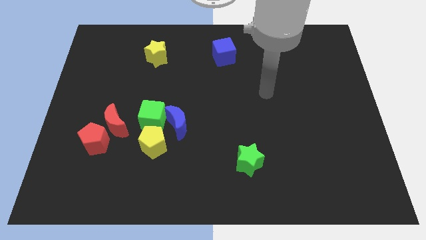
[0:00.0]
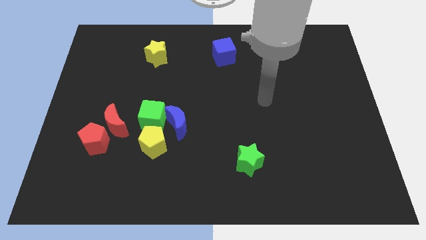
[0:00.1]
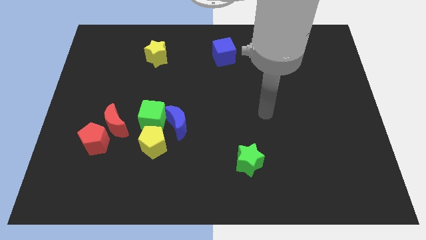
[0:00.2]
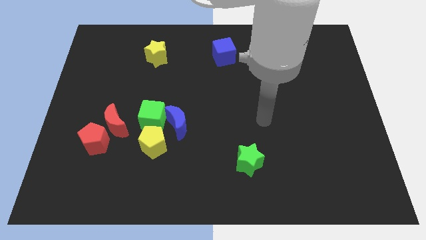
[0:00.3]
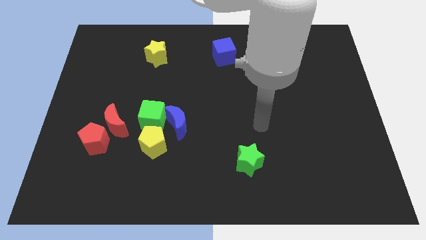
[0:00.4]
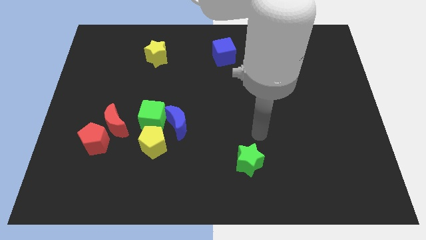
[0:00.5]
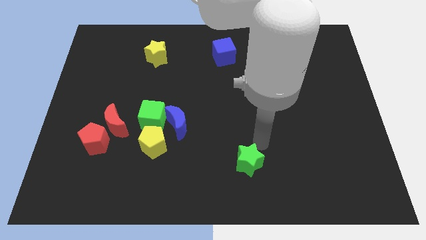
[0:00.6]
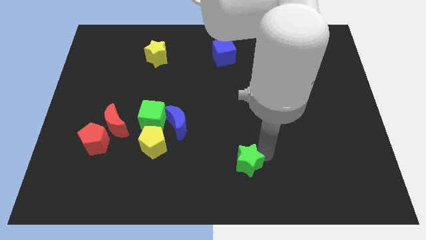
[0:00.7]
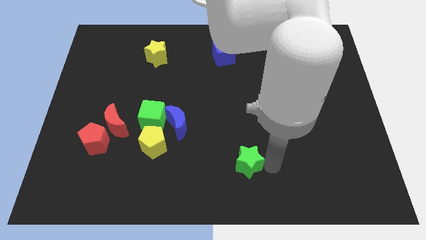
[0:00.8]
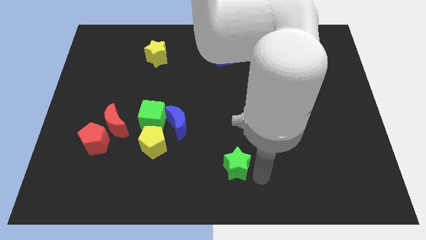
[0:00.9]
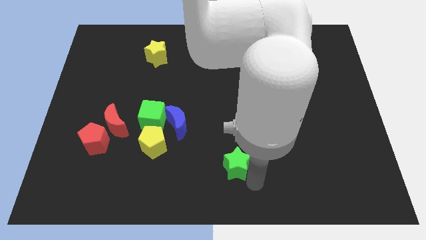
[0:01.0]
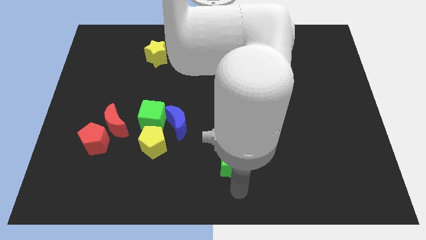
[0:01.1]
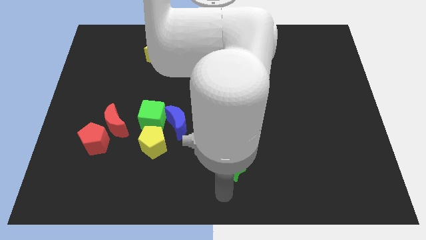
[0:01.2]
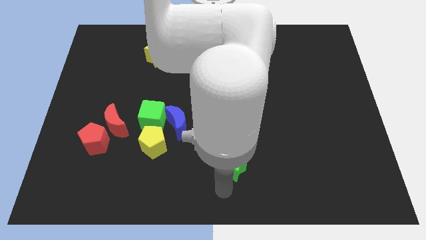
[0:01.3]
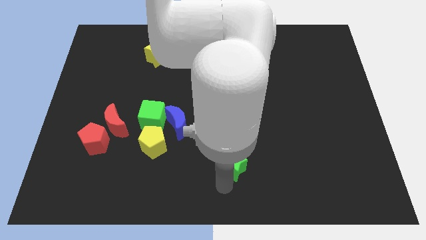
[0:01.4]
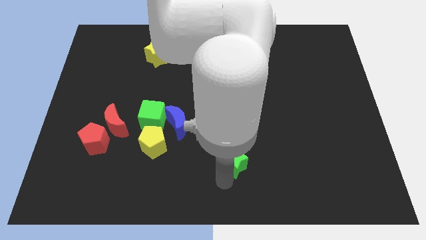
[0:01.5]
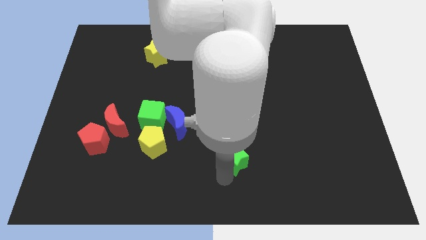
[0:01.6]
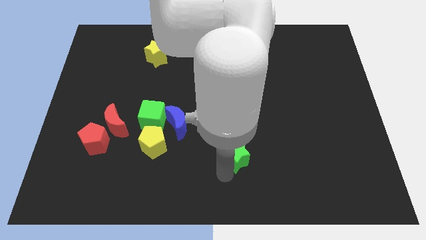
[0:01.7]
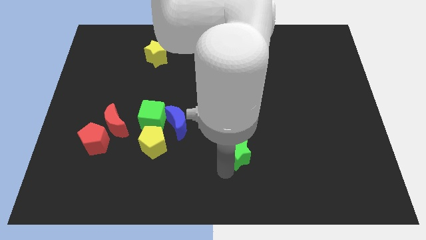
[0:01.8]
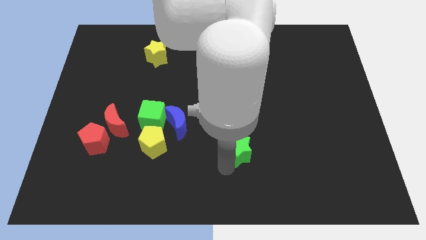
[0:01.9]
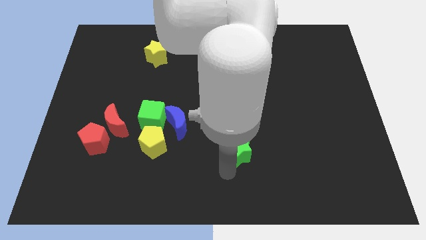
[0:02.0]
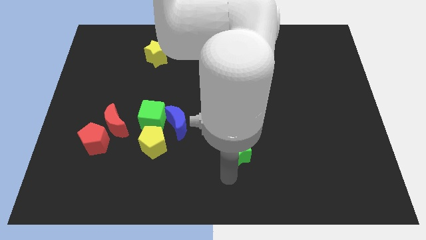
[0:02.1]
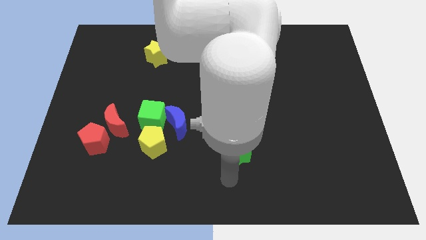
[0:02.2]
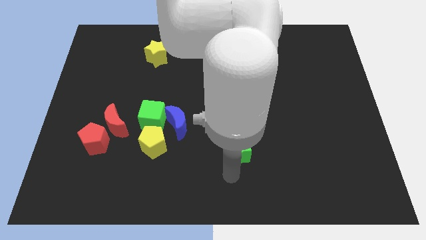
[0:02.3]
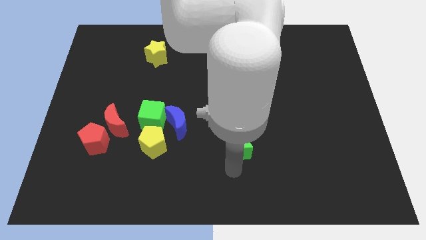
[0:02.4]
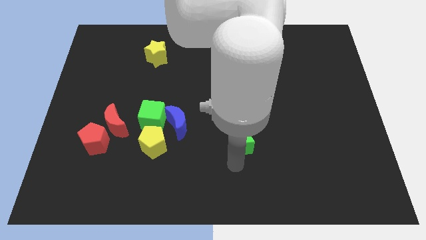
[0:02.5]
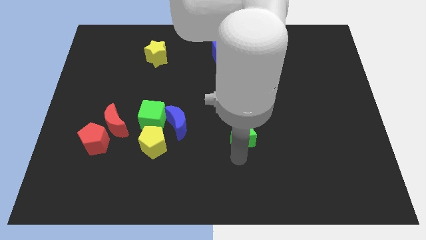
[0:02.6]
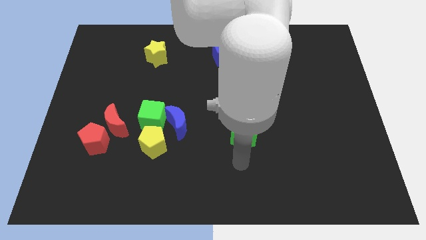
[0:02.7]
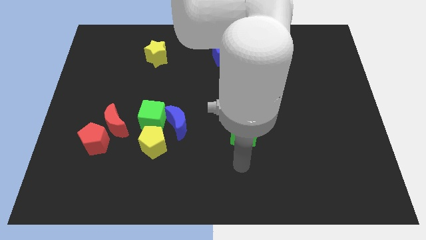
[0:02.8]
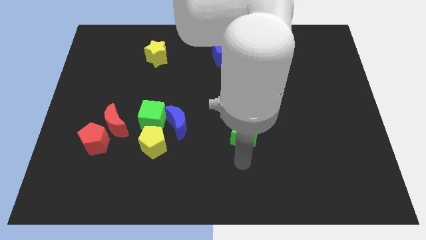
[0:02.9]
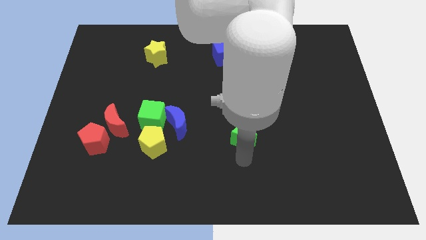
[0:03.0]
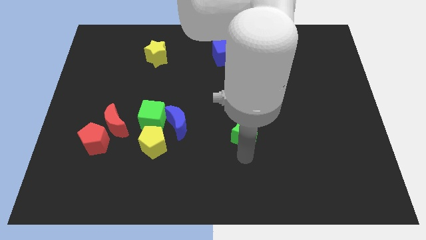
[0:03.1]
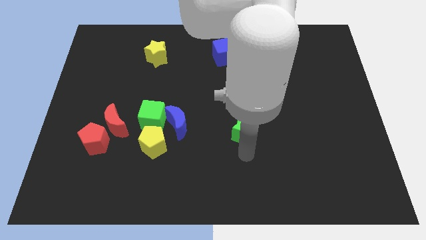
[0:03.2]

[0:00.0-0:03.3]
push the green star somewhat upwards

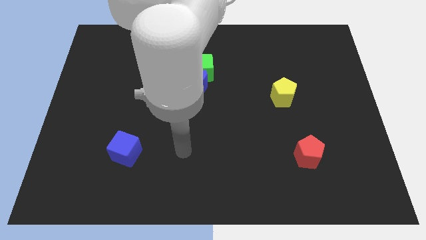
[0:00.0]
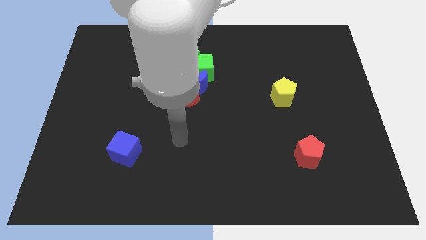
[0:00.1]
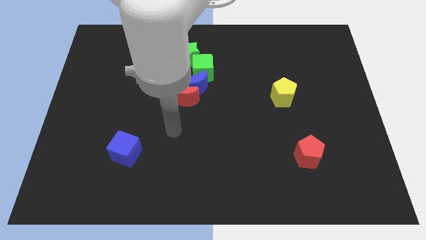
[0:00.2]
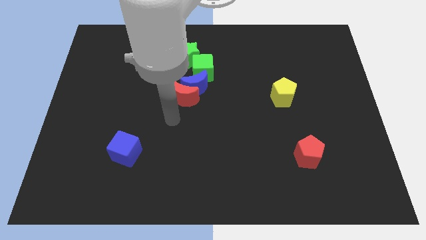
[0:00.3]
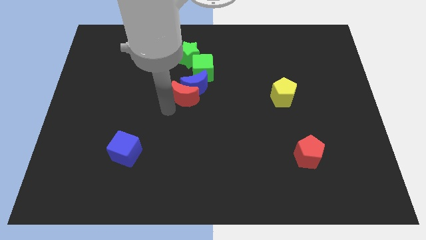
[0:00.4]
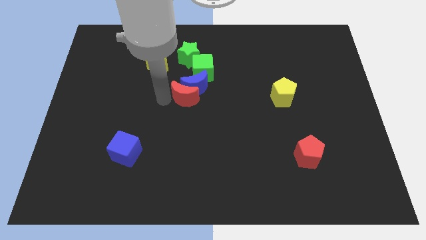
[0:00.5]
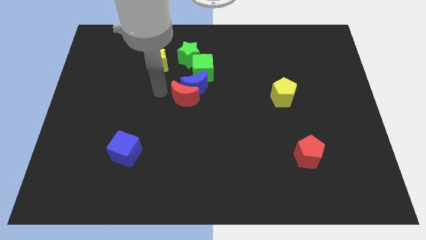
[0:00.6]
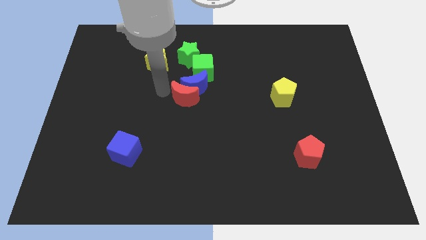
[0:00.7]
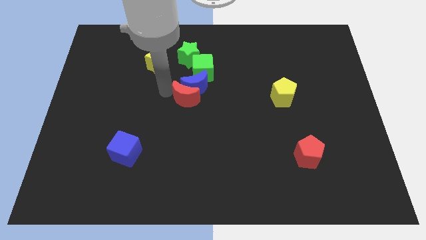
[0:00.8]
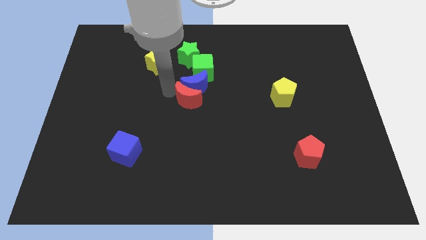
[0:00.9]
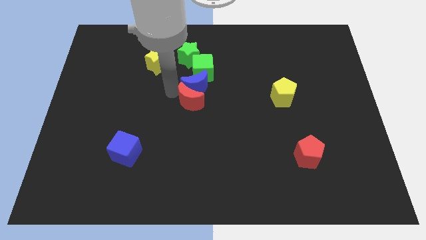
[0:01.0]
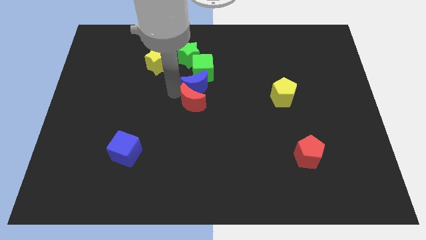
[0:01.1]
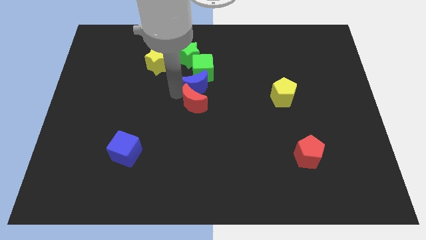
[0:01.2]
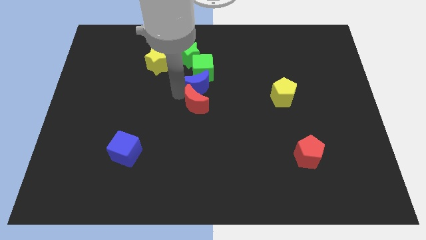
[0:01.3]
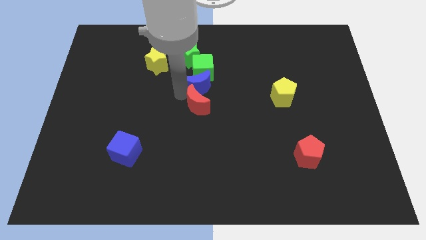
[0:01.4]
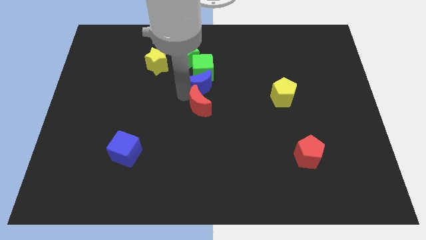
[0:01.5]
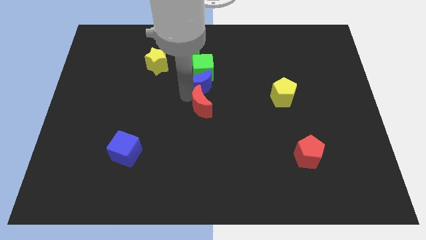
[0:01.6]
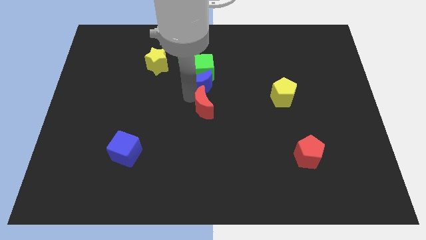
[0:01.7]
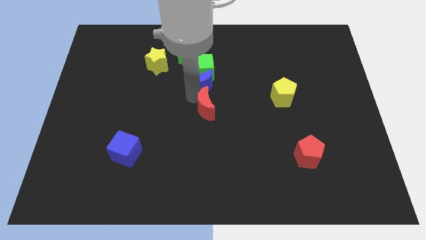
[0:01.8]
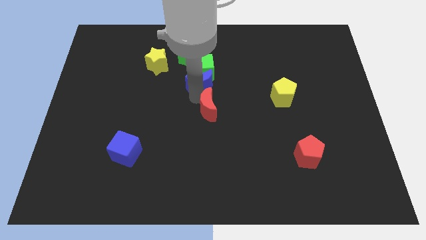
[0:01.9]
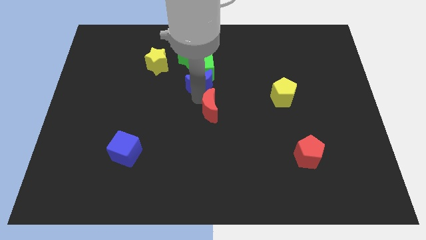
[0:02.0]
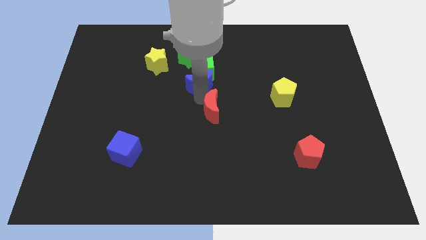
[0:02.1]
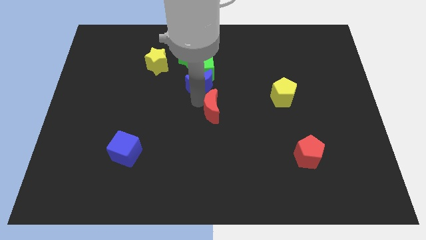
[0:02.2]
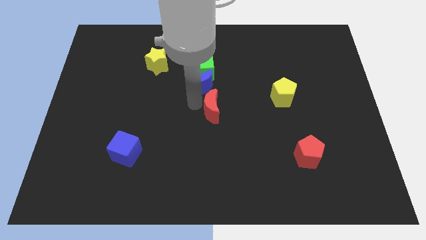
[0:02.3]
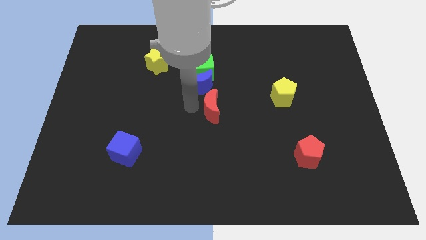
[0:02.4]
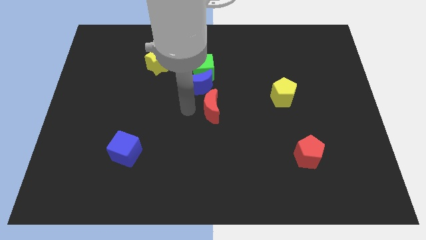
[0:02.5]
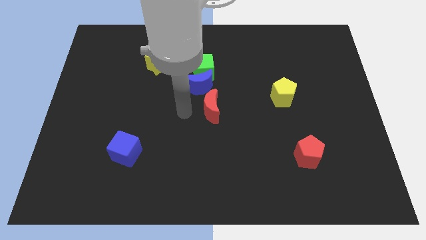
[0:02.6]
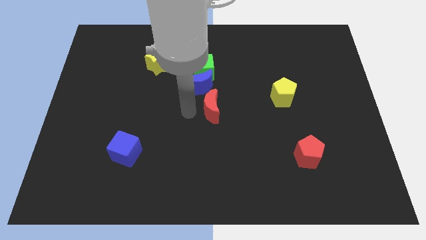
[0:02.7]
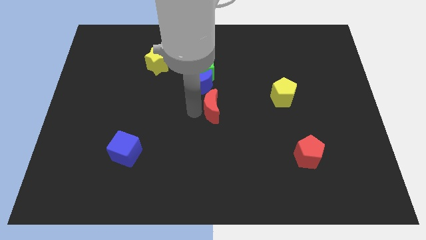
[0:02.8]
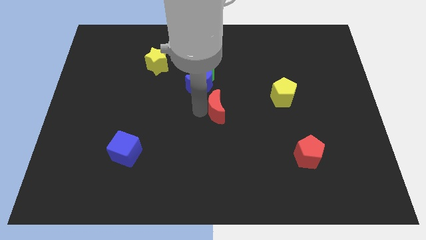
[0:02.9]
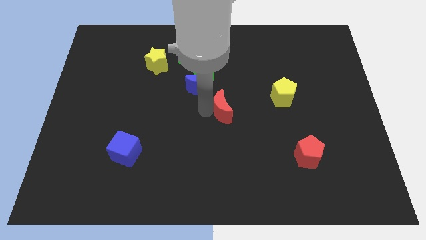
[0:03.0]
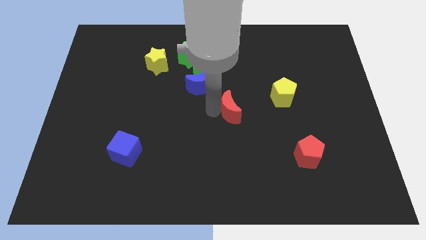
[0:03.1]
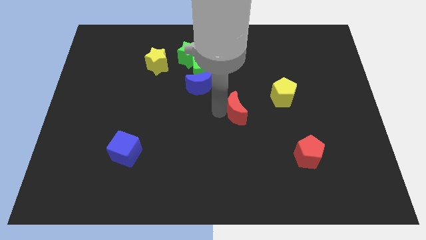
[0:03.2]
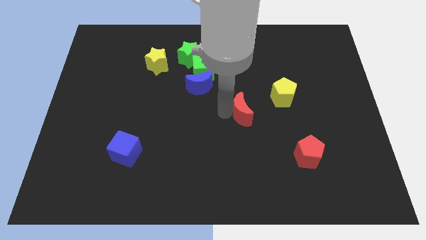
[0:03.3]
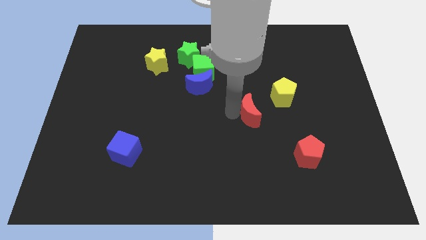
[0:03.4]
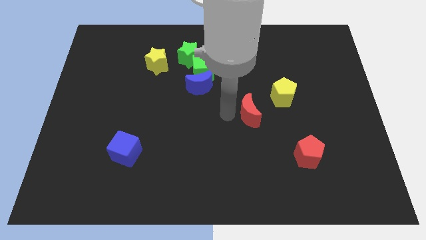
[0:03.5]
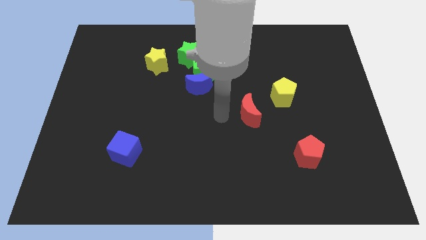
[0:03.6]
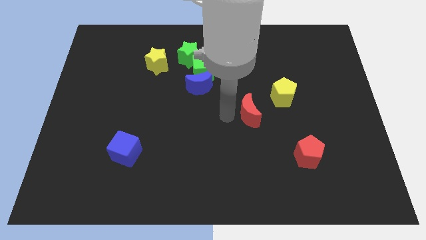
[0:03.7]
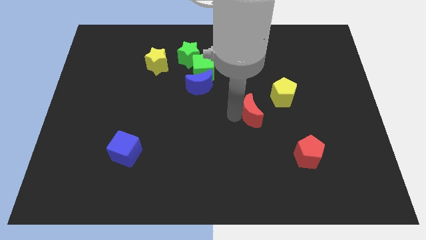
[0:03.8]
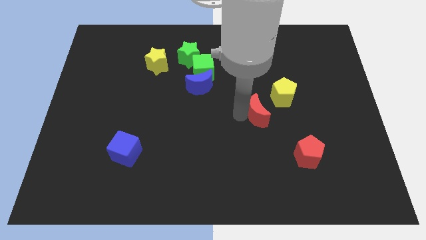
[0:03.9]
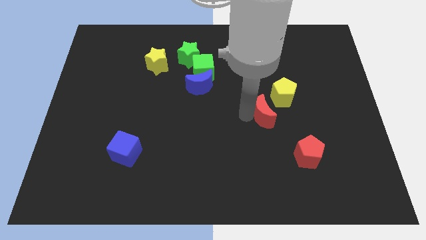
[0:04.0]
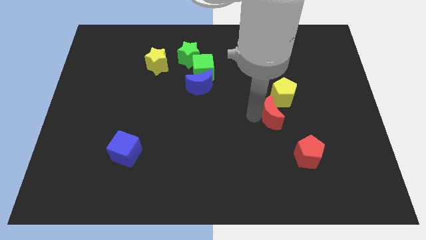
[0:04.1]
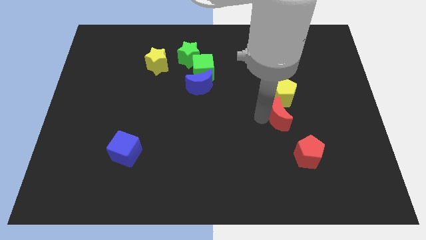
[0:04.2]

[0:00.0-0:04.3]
push the red moon right

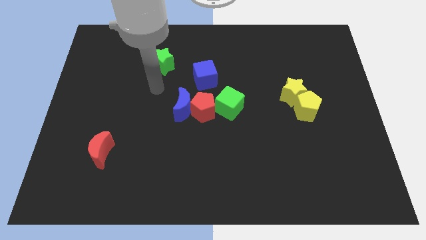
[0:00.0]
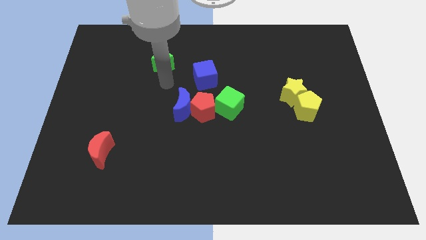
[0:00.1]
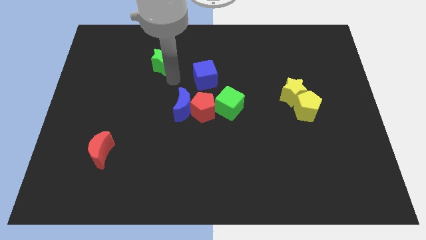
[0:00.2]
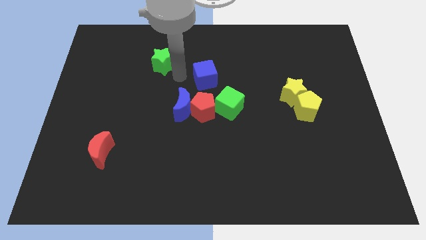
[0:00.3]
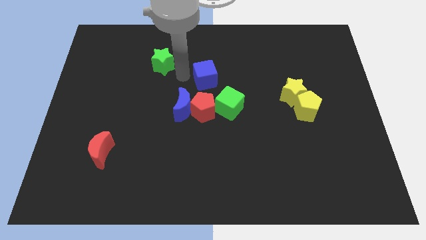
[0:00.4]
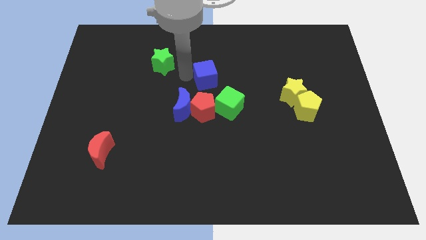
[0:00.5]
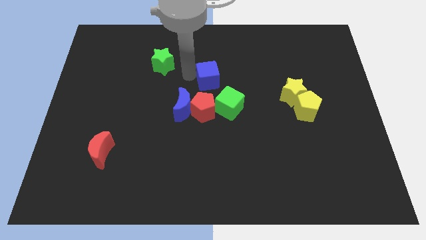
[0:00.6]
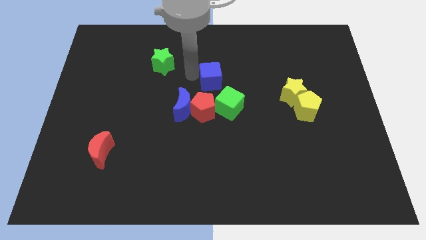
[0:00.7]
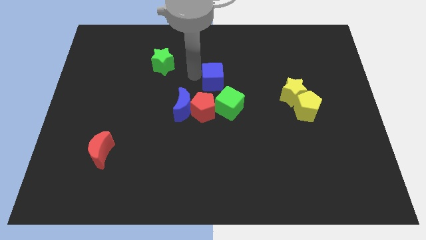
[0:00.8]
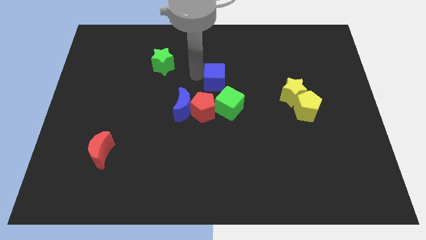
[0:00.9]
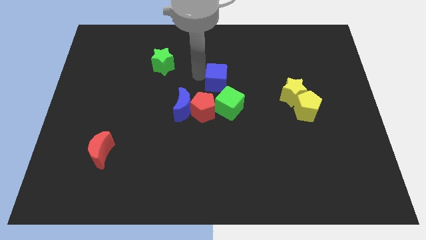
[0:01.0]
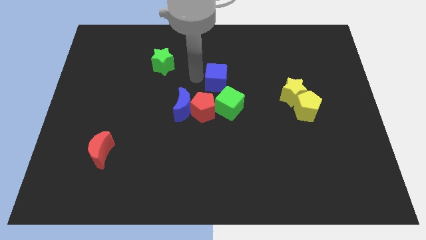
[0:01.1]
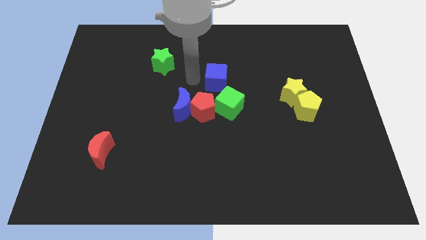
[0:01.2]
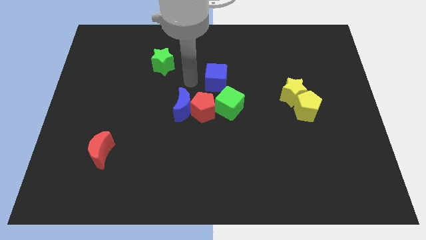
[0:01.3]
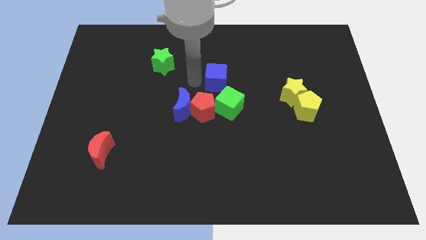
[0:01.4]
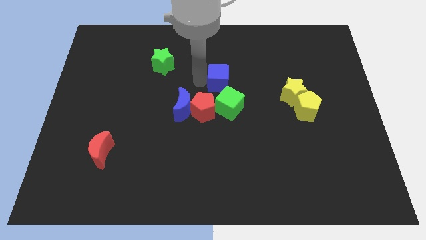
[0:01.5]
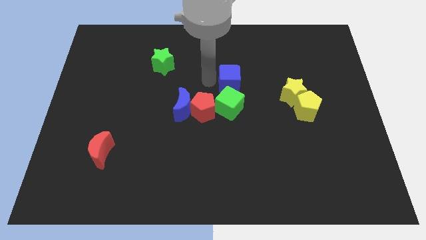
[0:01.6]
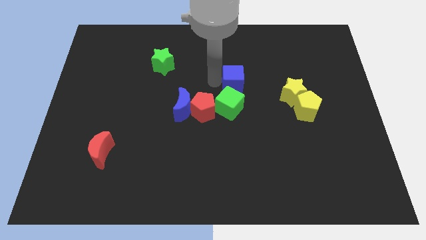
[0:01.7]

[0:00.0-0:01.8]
move the blue cube to the right a little bit
